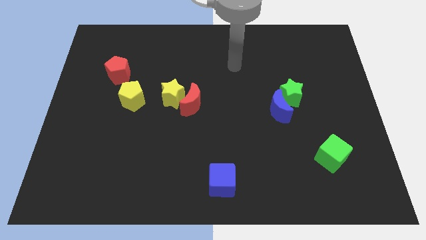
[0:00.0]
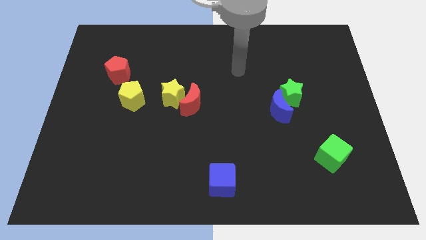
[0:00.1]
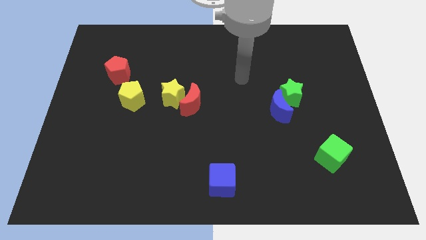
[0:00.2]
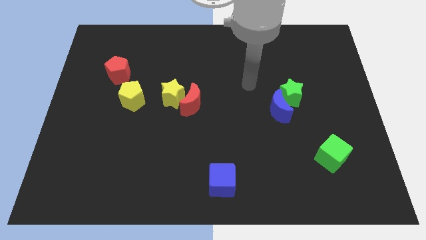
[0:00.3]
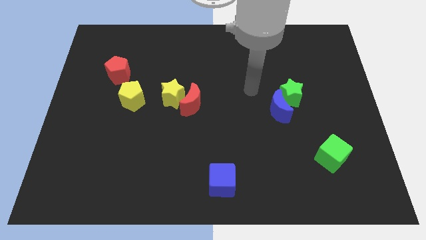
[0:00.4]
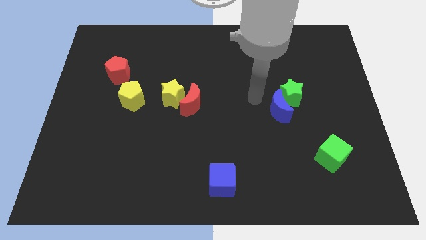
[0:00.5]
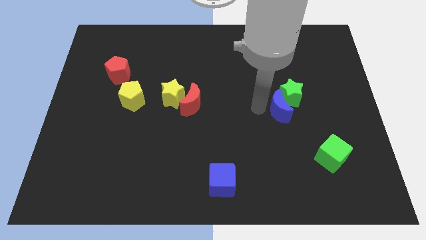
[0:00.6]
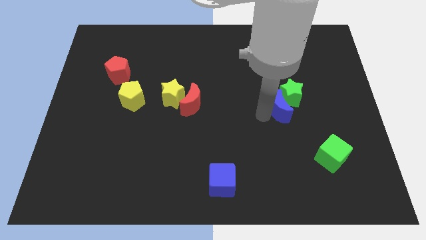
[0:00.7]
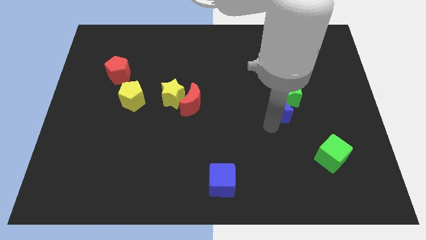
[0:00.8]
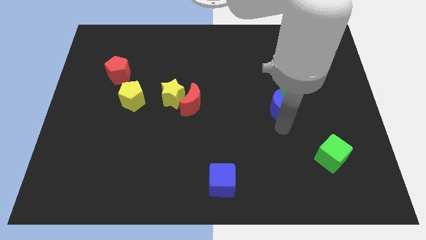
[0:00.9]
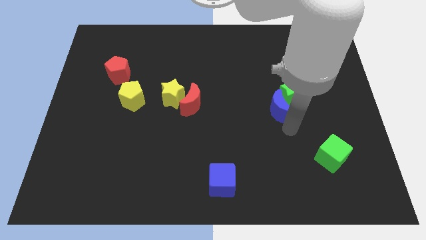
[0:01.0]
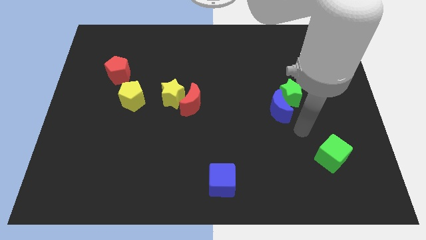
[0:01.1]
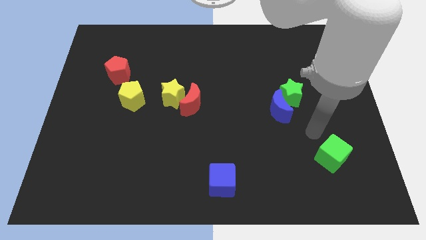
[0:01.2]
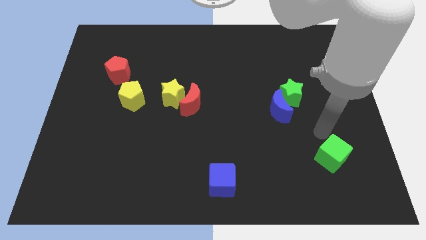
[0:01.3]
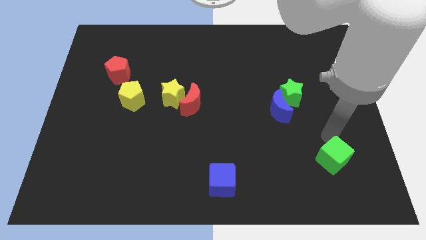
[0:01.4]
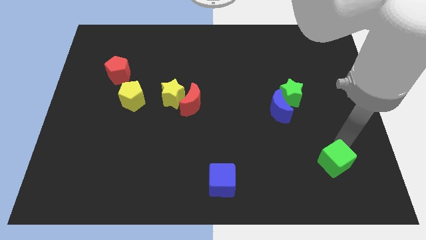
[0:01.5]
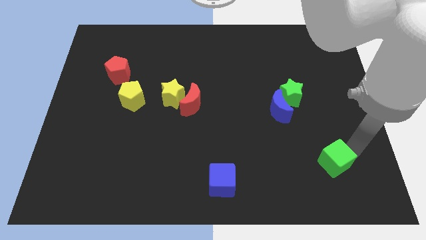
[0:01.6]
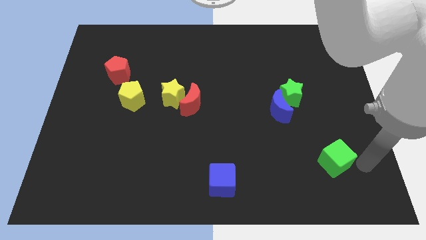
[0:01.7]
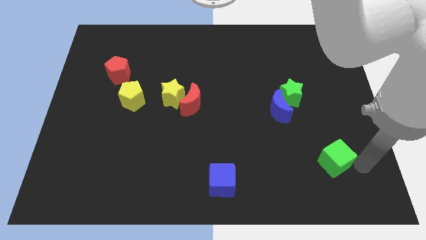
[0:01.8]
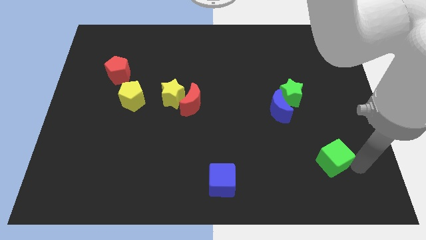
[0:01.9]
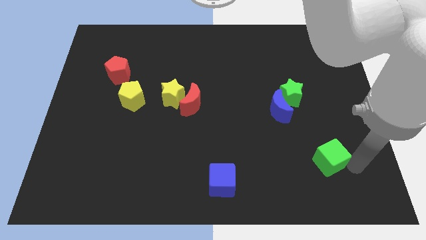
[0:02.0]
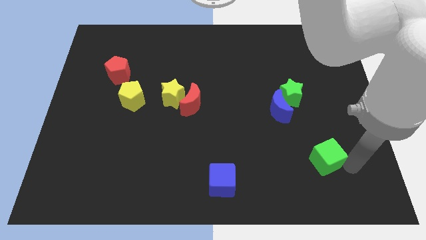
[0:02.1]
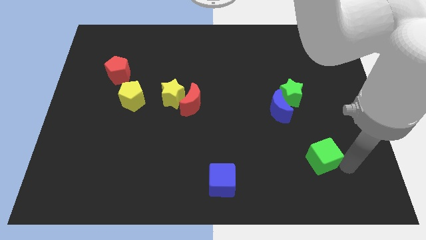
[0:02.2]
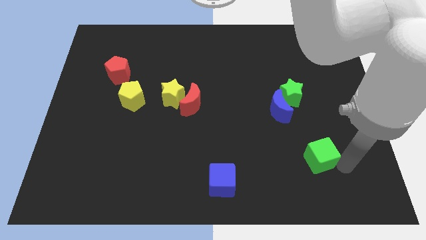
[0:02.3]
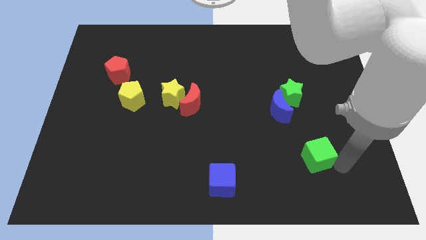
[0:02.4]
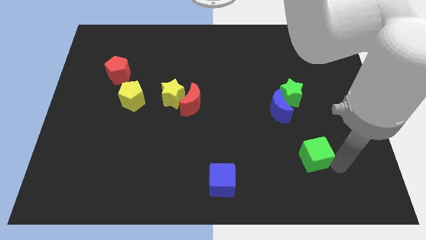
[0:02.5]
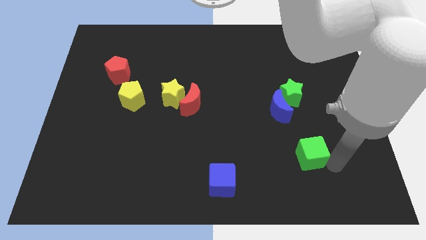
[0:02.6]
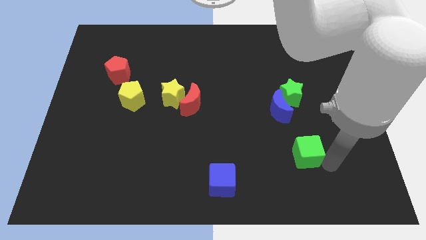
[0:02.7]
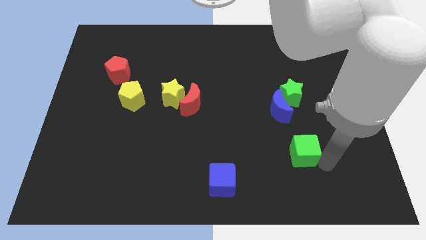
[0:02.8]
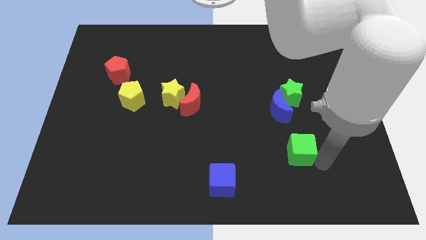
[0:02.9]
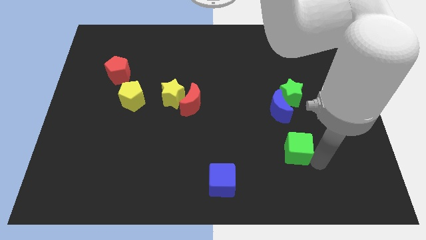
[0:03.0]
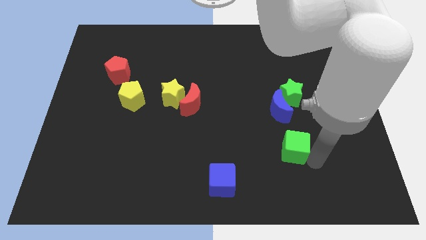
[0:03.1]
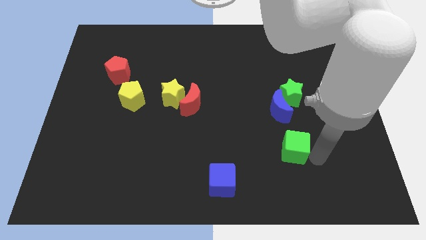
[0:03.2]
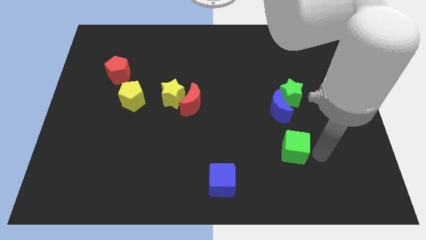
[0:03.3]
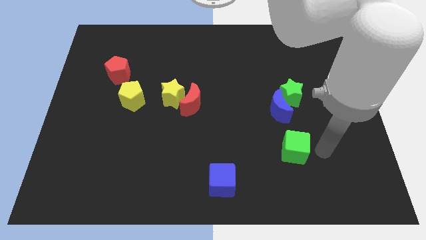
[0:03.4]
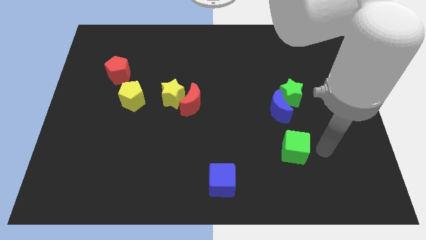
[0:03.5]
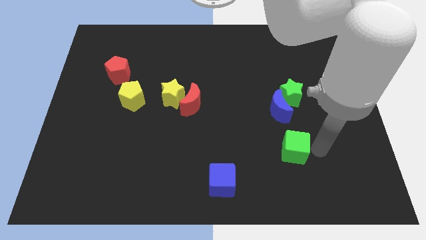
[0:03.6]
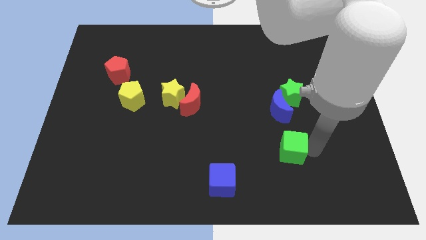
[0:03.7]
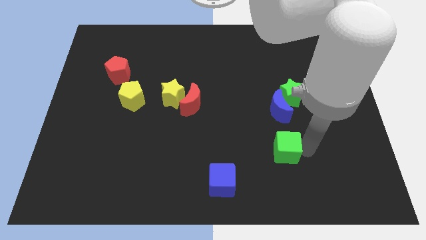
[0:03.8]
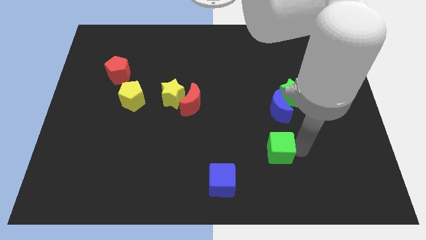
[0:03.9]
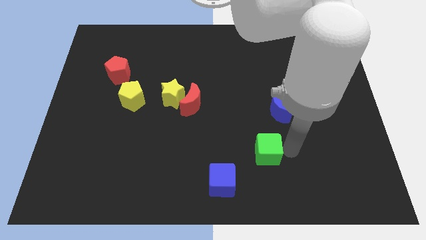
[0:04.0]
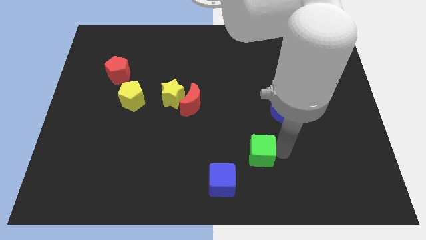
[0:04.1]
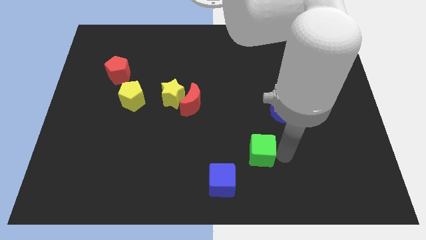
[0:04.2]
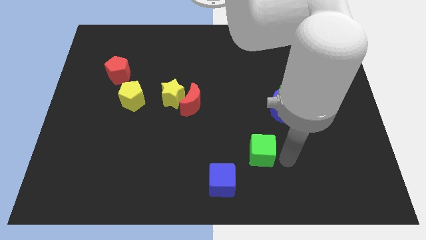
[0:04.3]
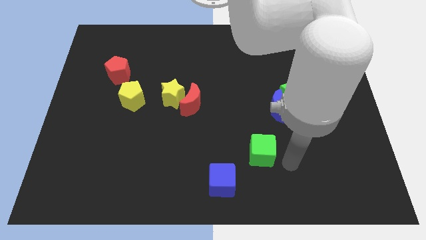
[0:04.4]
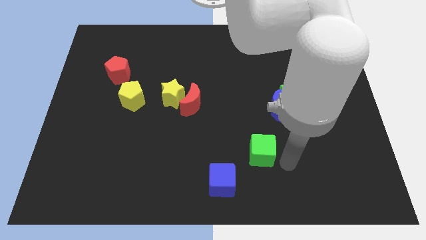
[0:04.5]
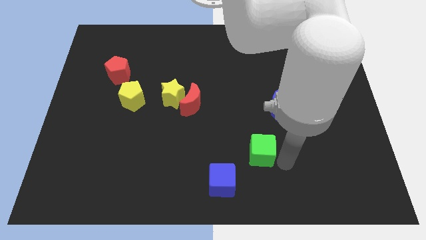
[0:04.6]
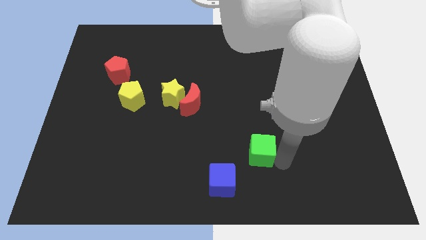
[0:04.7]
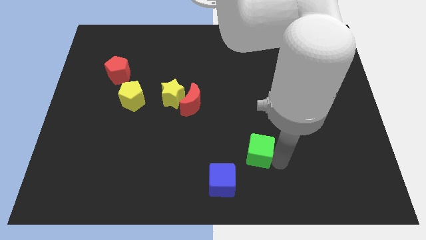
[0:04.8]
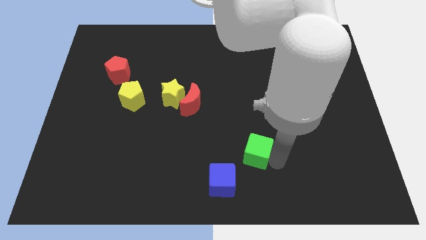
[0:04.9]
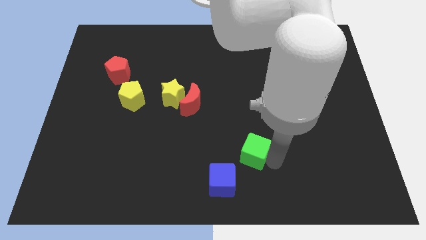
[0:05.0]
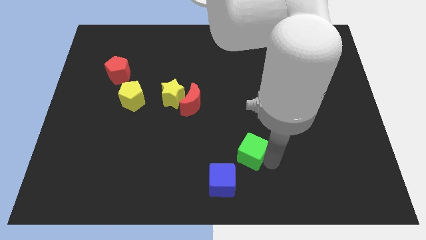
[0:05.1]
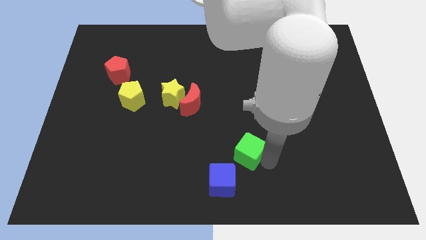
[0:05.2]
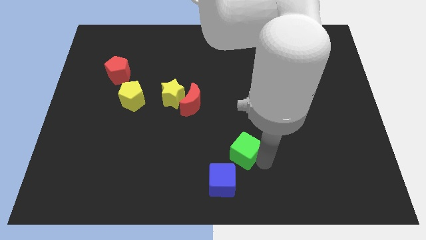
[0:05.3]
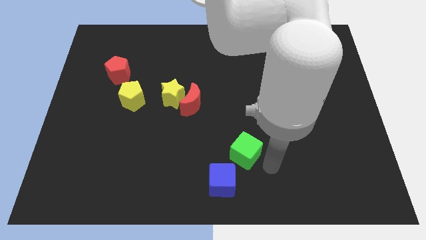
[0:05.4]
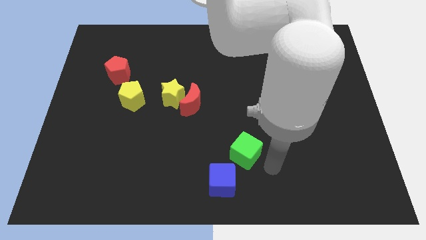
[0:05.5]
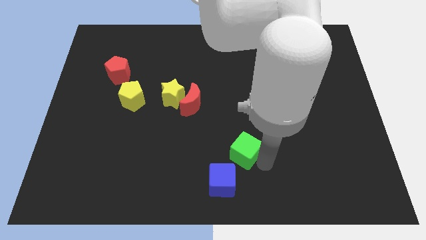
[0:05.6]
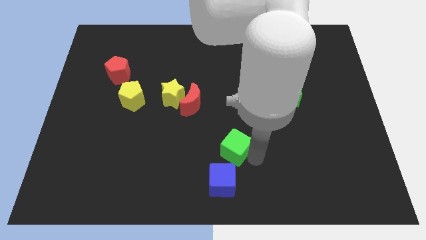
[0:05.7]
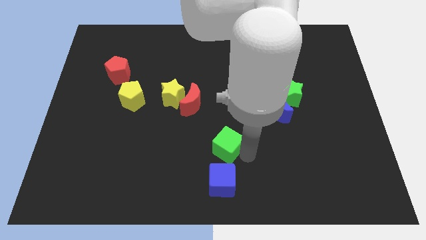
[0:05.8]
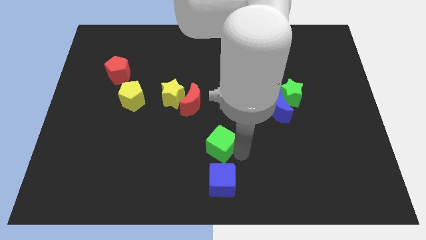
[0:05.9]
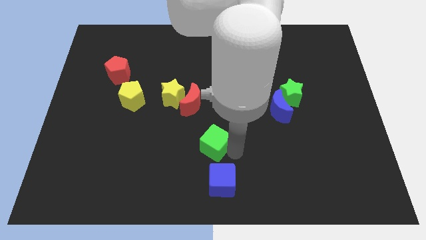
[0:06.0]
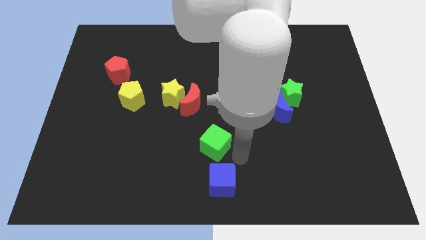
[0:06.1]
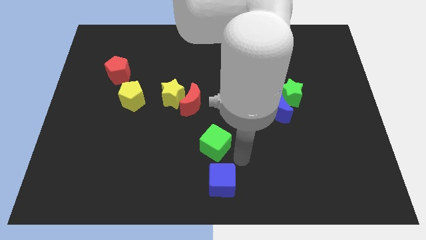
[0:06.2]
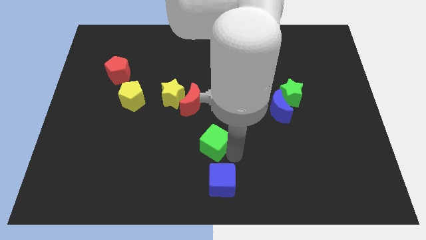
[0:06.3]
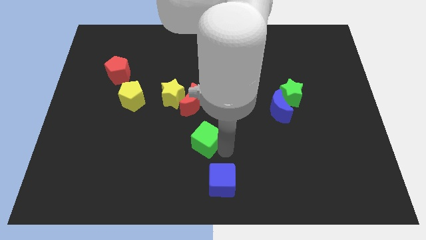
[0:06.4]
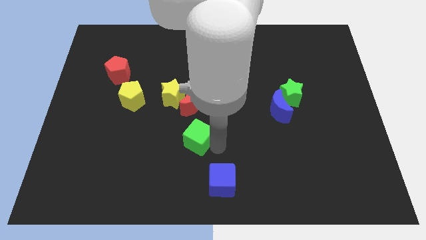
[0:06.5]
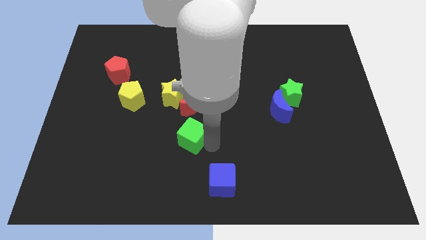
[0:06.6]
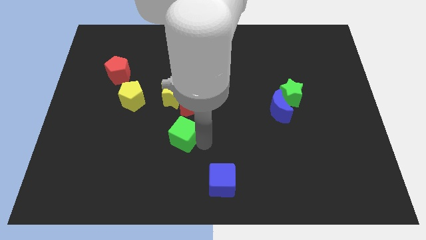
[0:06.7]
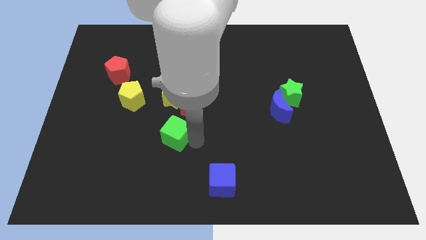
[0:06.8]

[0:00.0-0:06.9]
move the green cube to the bottom left side of the red moon
